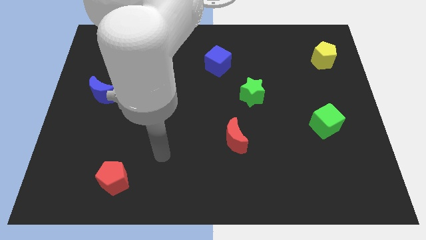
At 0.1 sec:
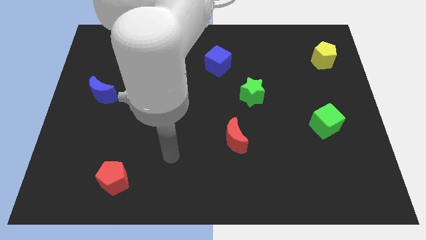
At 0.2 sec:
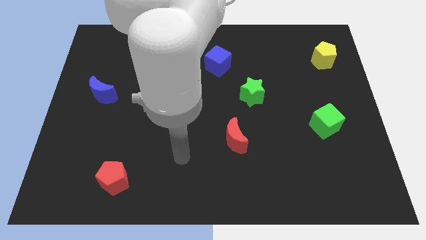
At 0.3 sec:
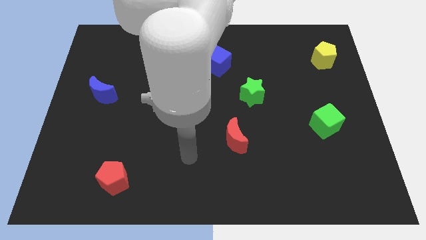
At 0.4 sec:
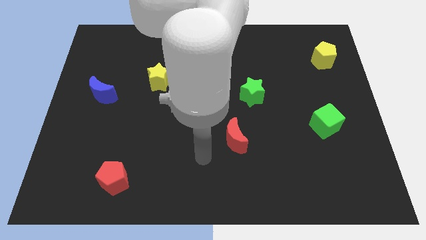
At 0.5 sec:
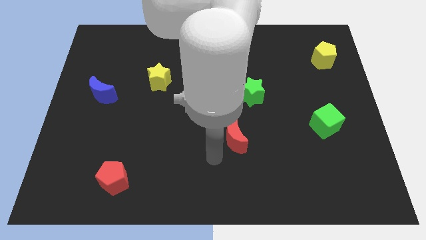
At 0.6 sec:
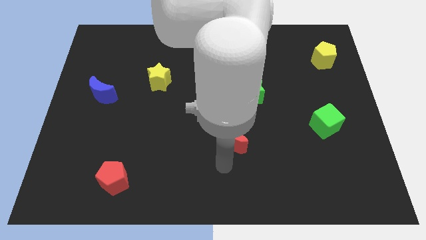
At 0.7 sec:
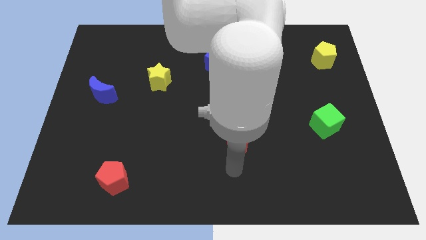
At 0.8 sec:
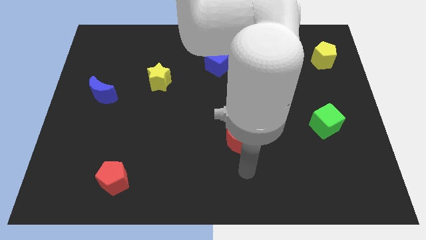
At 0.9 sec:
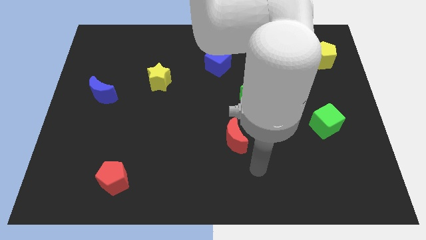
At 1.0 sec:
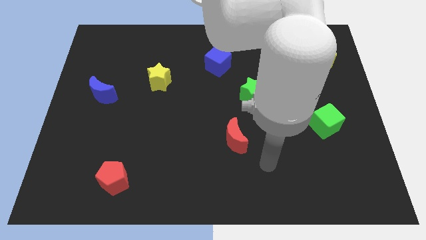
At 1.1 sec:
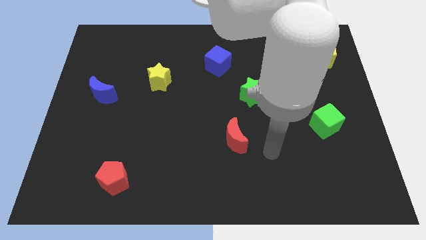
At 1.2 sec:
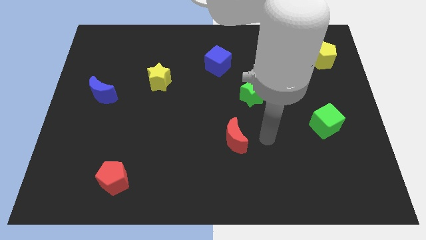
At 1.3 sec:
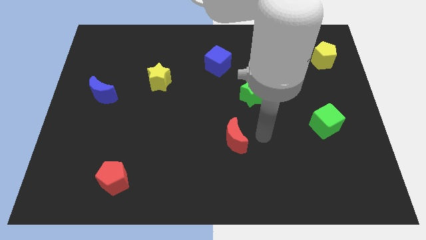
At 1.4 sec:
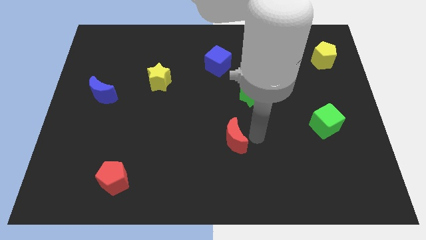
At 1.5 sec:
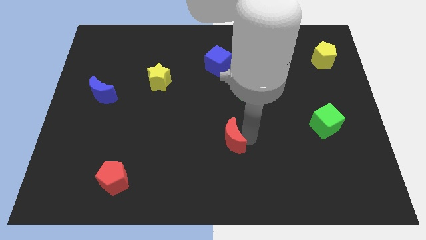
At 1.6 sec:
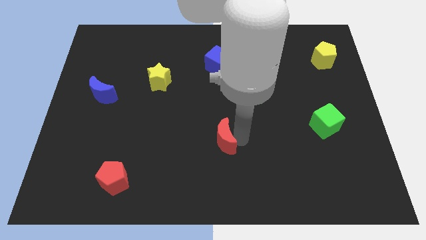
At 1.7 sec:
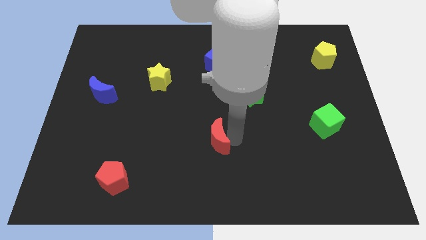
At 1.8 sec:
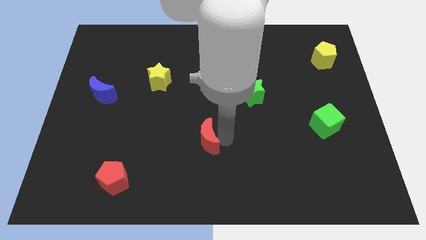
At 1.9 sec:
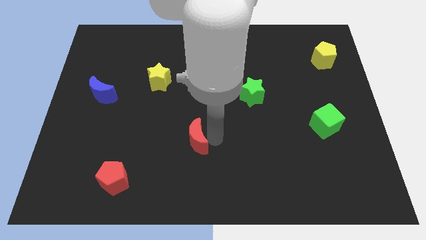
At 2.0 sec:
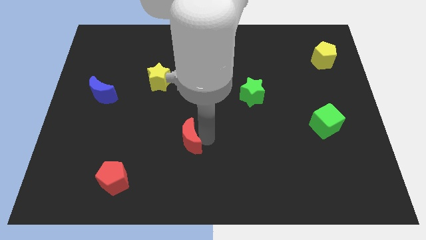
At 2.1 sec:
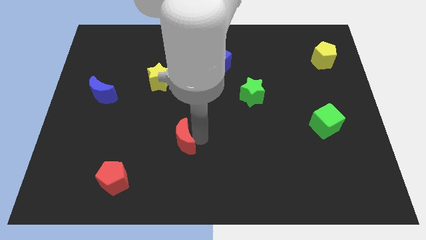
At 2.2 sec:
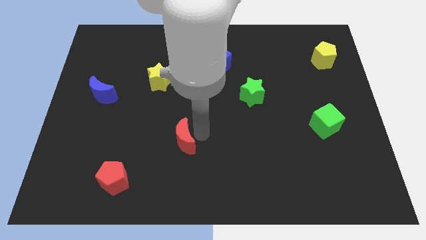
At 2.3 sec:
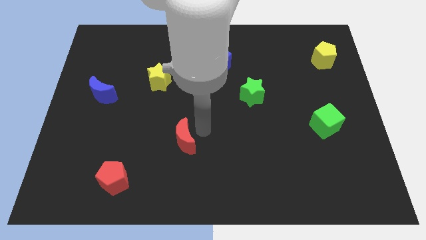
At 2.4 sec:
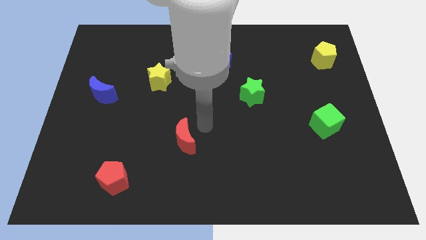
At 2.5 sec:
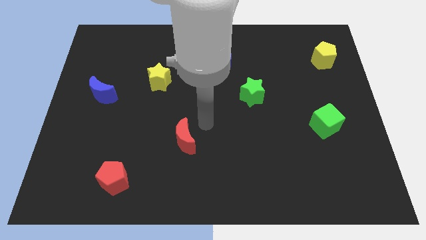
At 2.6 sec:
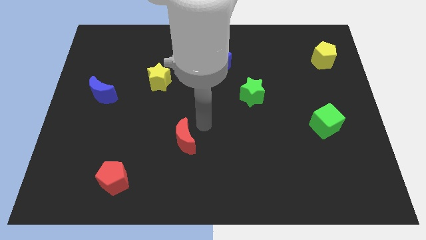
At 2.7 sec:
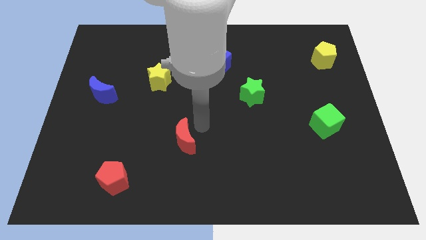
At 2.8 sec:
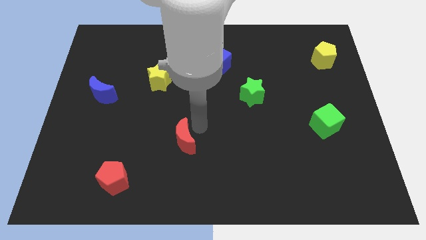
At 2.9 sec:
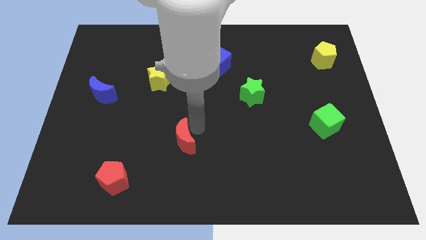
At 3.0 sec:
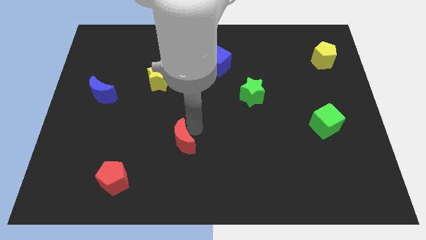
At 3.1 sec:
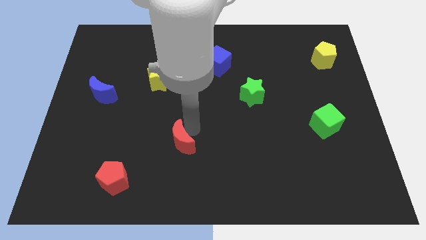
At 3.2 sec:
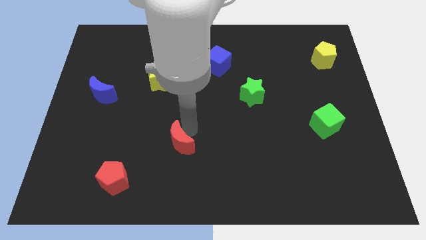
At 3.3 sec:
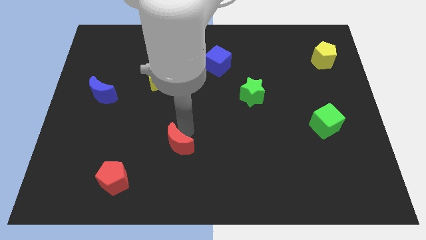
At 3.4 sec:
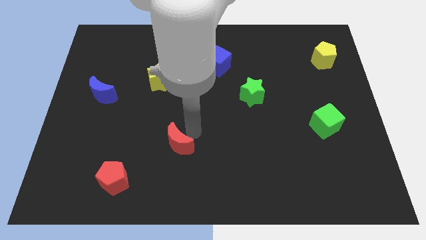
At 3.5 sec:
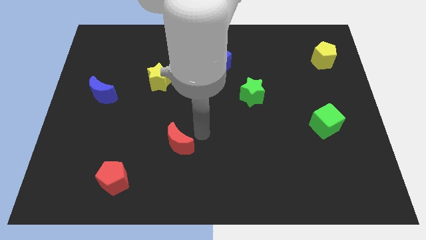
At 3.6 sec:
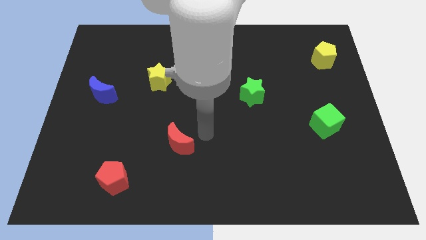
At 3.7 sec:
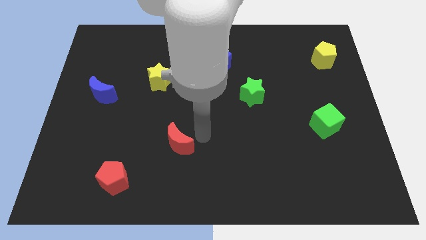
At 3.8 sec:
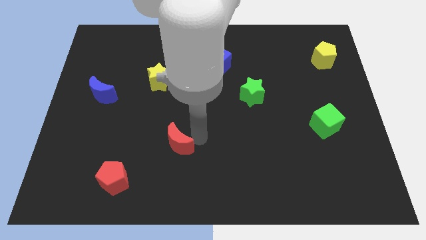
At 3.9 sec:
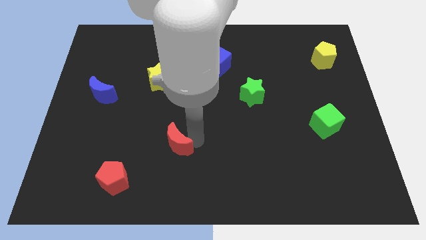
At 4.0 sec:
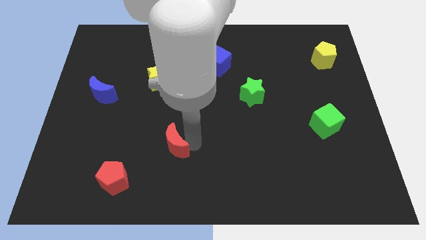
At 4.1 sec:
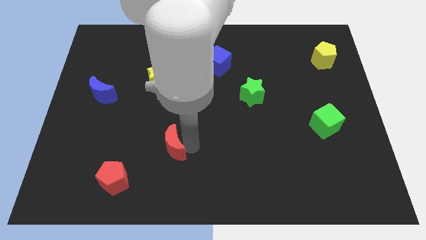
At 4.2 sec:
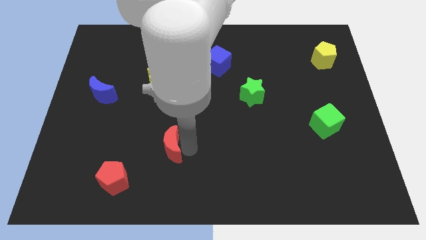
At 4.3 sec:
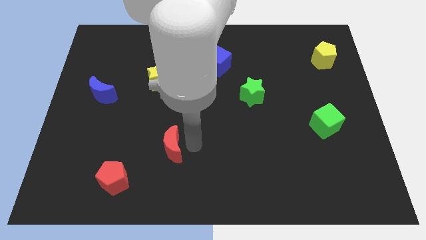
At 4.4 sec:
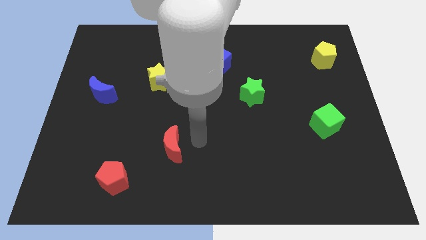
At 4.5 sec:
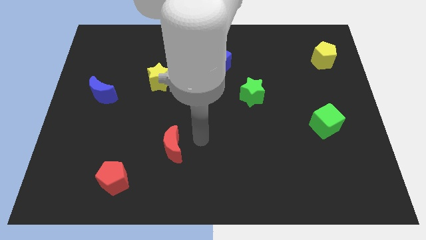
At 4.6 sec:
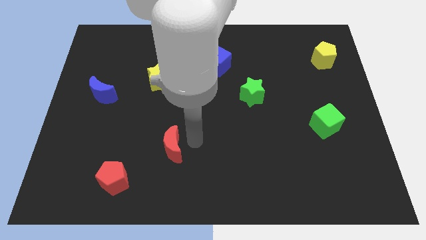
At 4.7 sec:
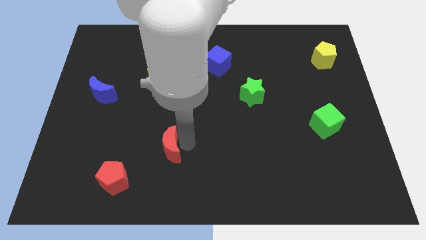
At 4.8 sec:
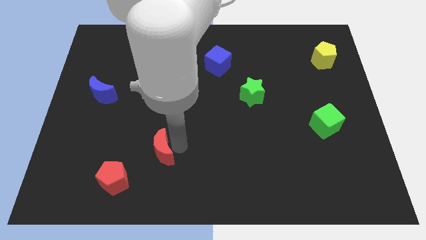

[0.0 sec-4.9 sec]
slide the red moon to the top right of the red pentagon
